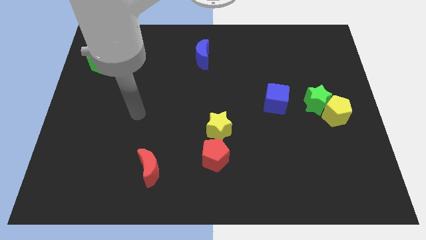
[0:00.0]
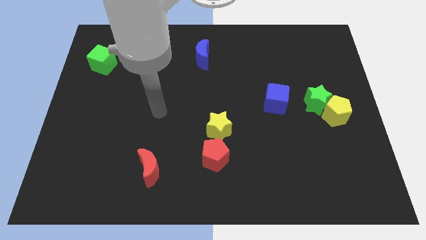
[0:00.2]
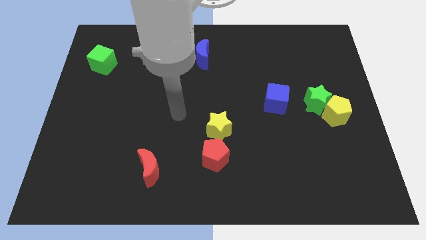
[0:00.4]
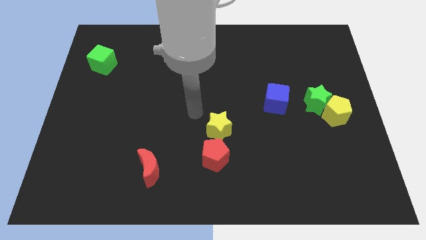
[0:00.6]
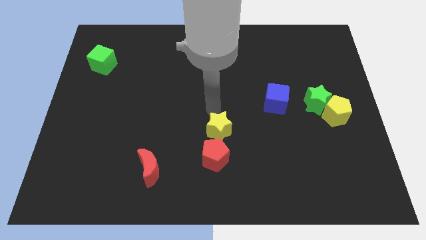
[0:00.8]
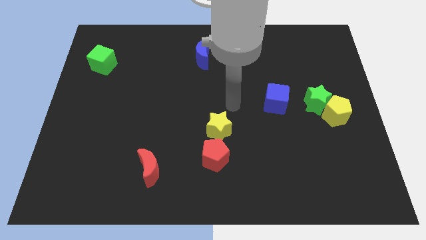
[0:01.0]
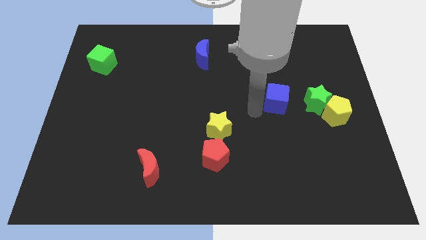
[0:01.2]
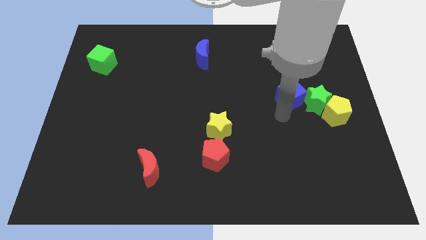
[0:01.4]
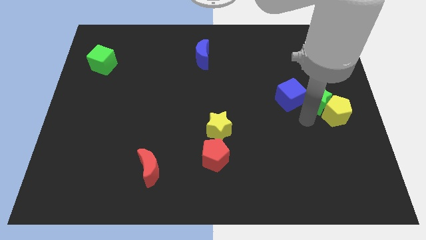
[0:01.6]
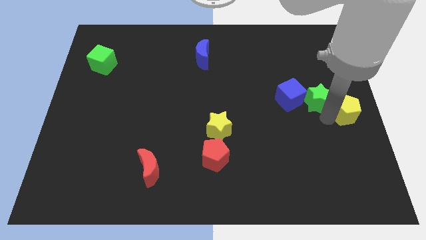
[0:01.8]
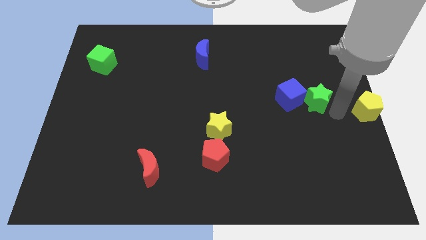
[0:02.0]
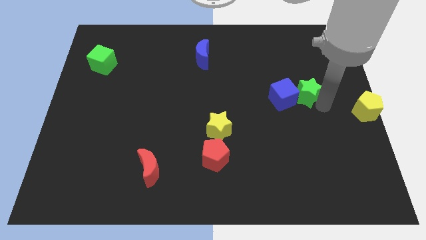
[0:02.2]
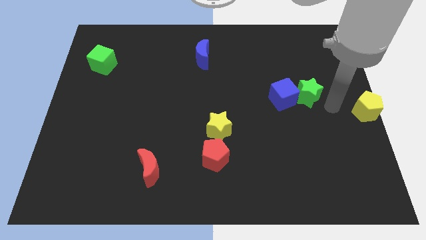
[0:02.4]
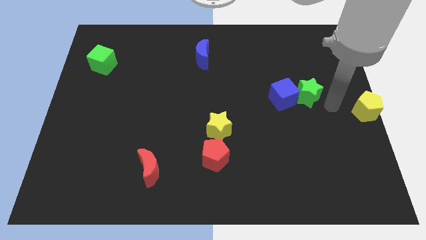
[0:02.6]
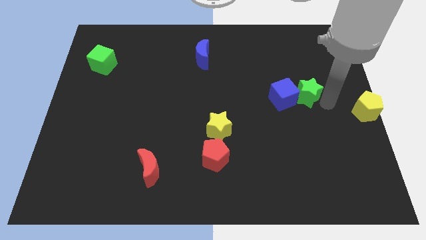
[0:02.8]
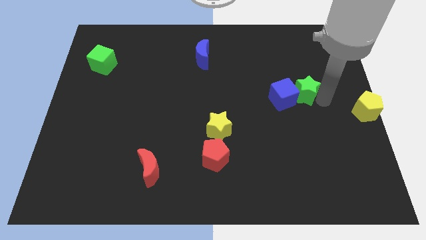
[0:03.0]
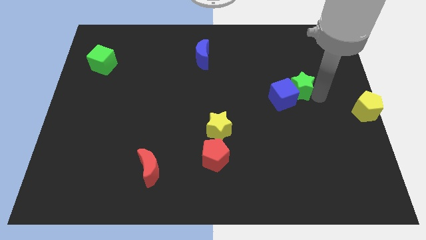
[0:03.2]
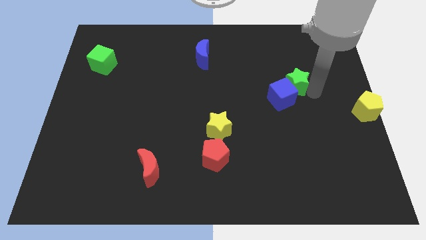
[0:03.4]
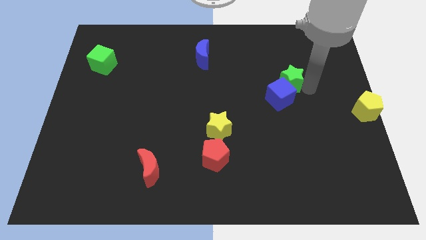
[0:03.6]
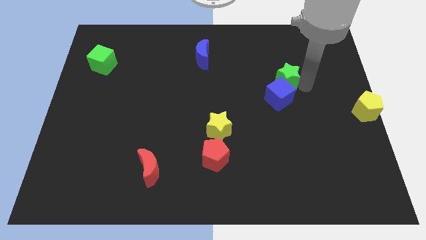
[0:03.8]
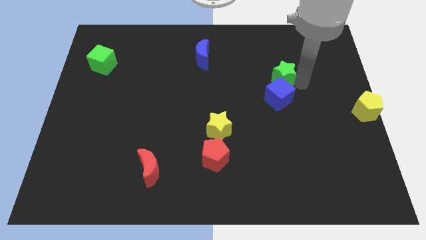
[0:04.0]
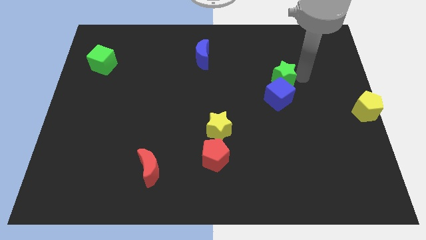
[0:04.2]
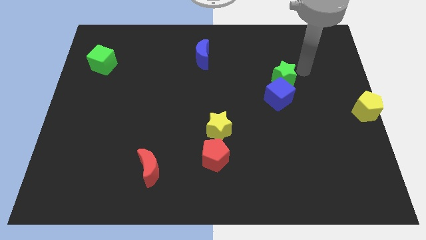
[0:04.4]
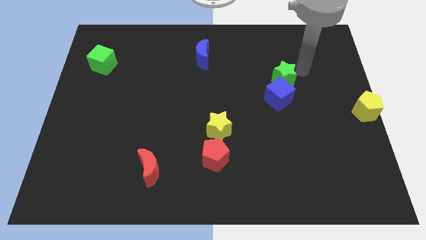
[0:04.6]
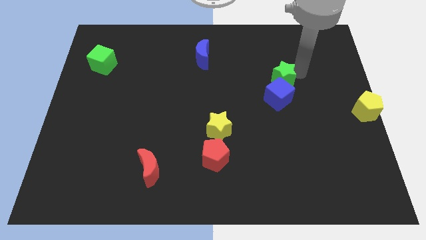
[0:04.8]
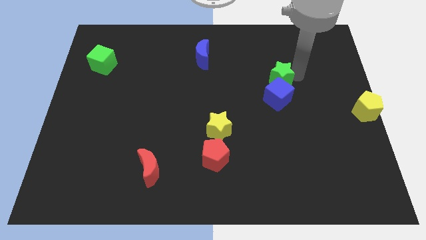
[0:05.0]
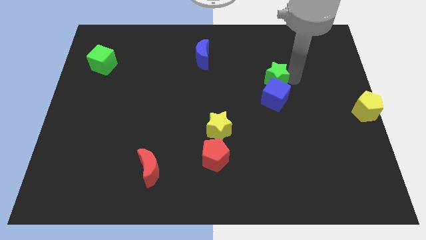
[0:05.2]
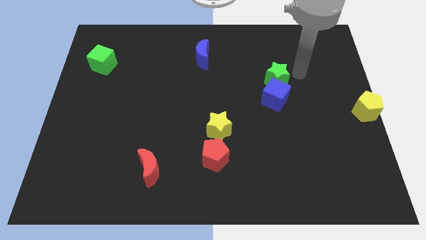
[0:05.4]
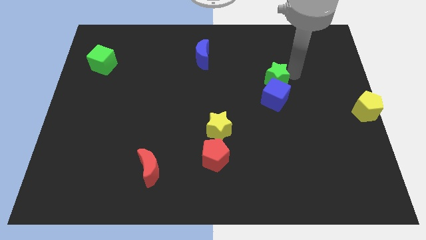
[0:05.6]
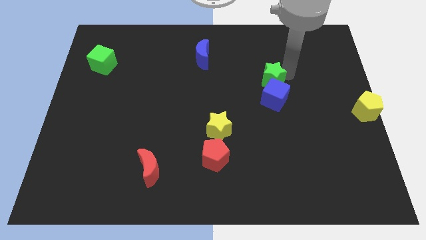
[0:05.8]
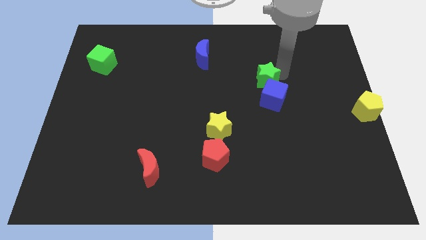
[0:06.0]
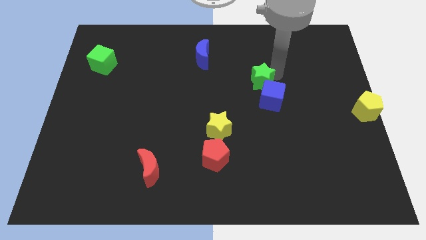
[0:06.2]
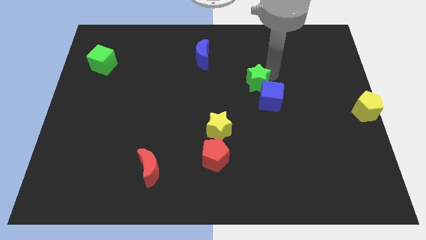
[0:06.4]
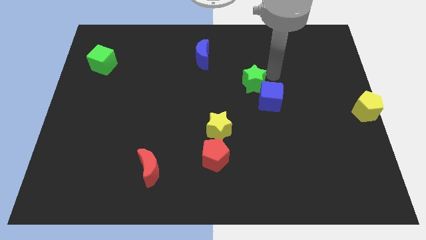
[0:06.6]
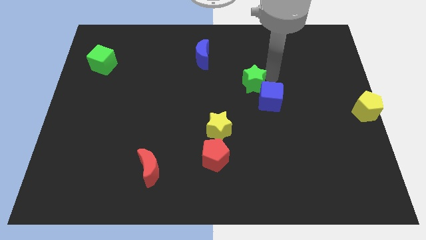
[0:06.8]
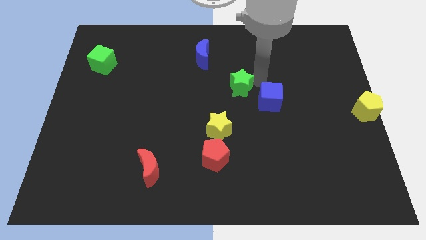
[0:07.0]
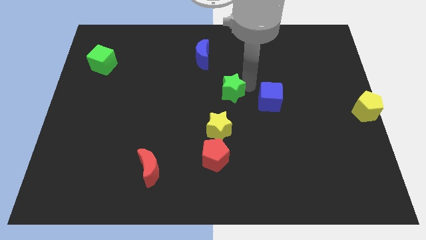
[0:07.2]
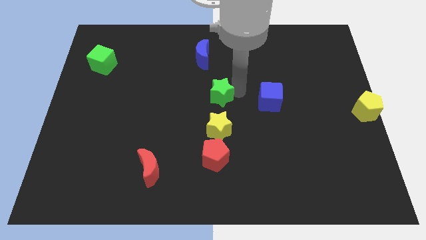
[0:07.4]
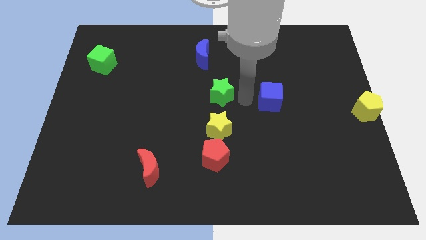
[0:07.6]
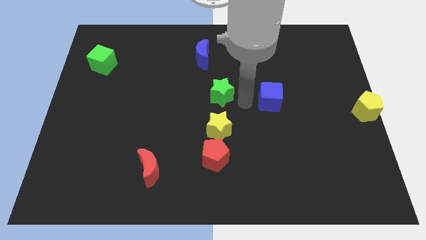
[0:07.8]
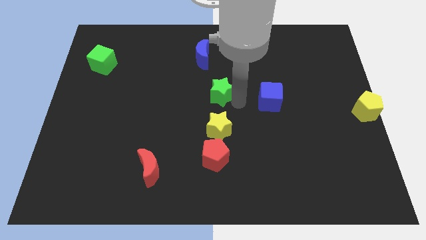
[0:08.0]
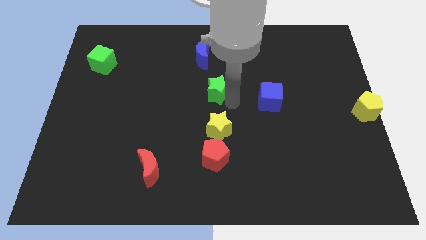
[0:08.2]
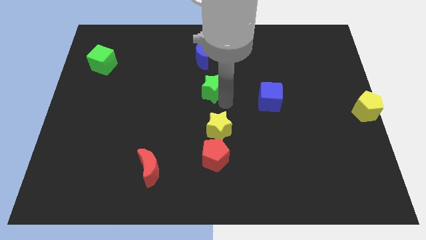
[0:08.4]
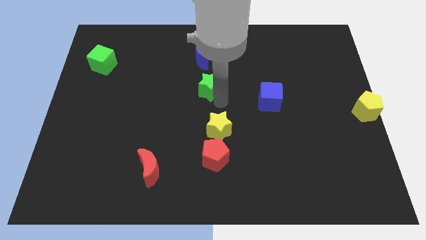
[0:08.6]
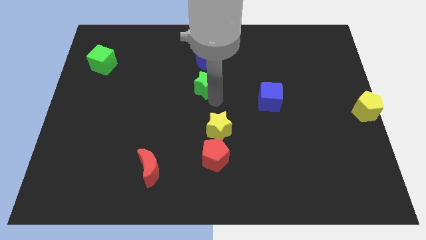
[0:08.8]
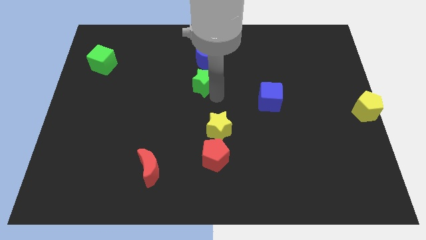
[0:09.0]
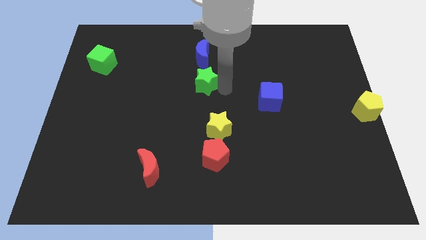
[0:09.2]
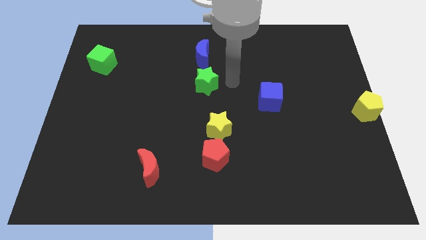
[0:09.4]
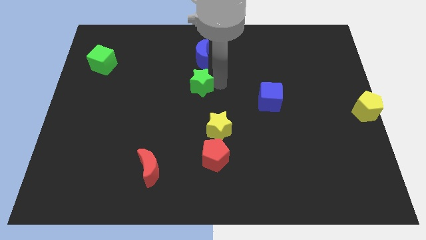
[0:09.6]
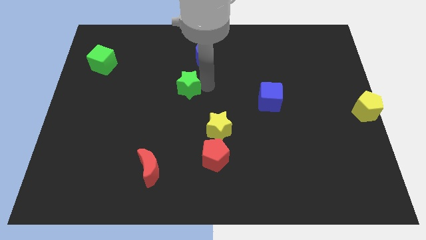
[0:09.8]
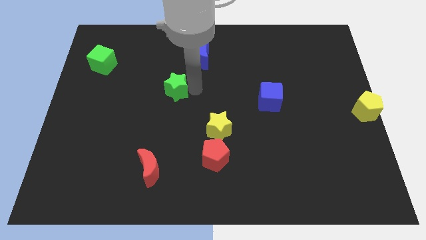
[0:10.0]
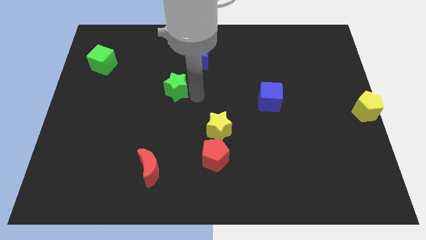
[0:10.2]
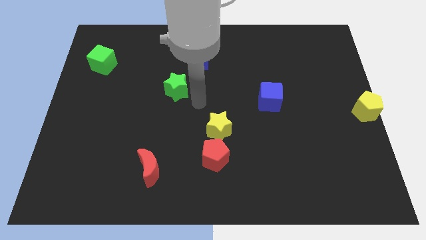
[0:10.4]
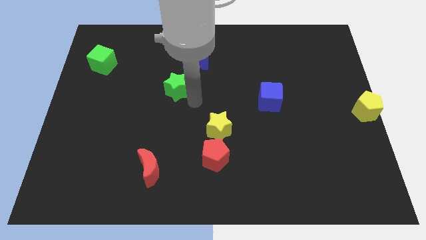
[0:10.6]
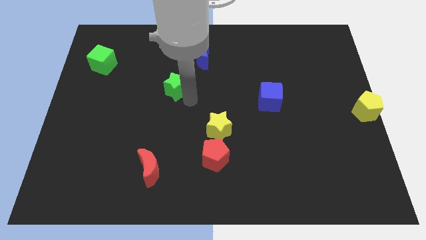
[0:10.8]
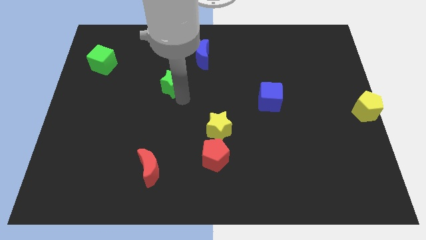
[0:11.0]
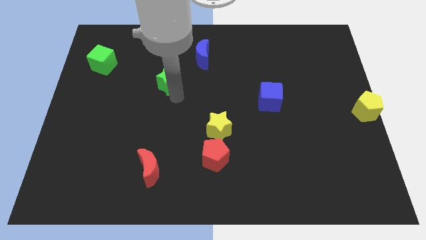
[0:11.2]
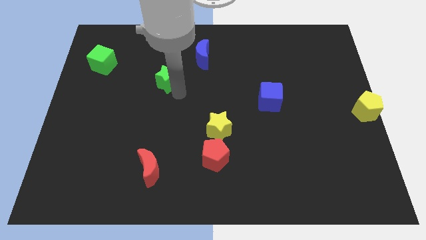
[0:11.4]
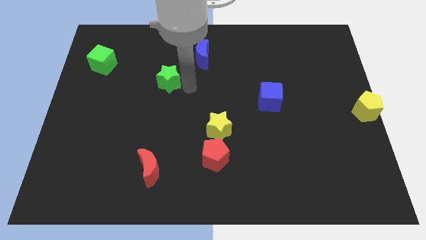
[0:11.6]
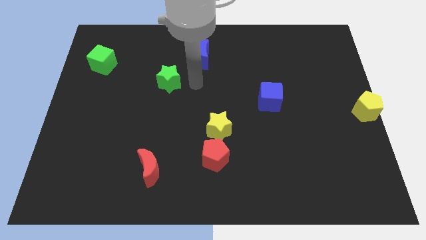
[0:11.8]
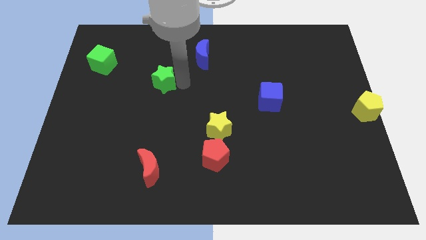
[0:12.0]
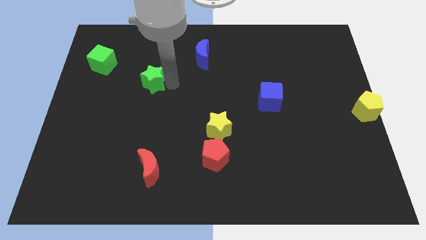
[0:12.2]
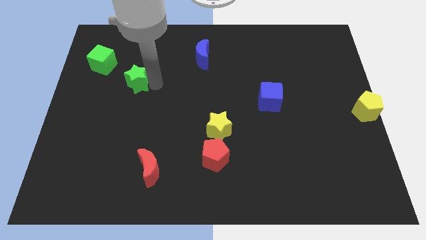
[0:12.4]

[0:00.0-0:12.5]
slide the green star to the bottom right side of the green cube

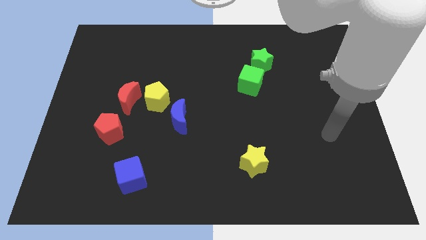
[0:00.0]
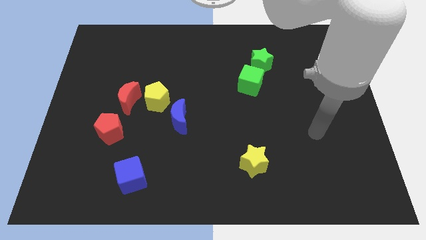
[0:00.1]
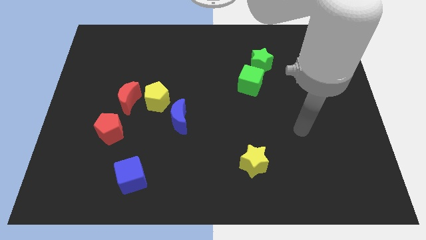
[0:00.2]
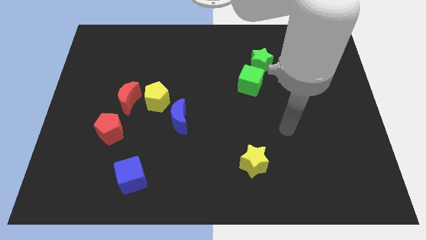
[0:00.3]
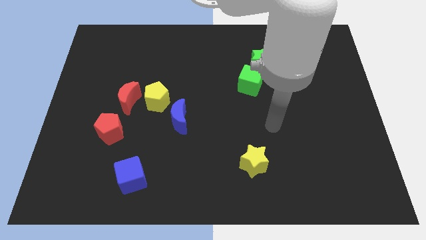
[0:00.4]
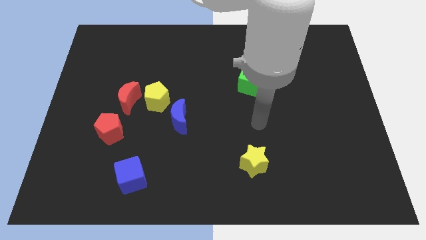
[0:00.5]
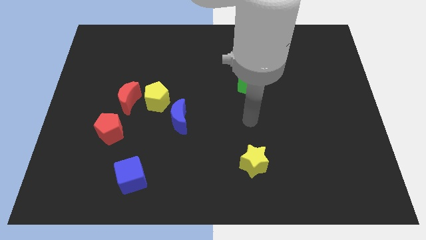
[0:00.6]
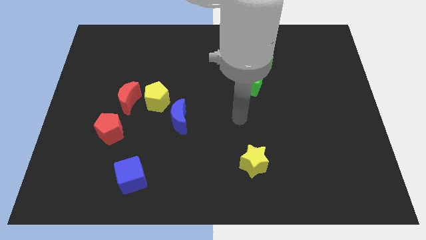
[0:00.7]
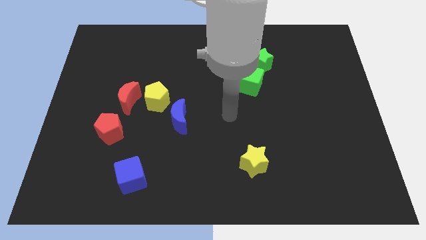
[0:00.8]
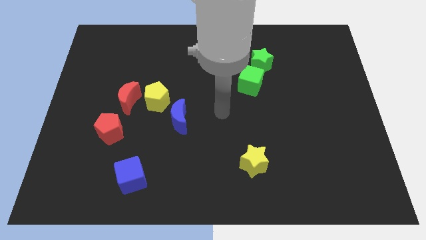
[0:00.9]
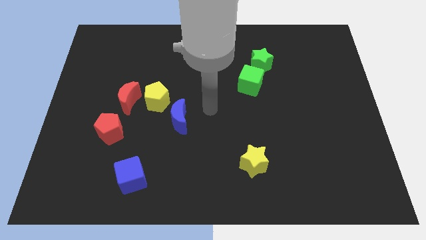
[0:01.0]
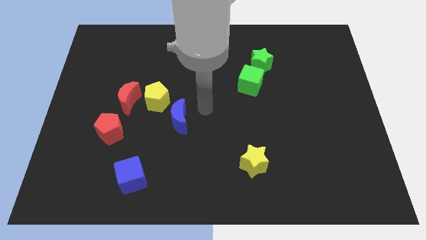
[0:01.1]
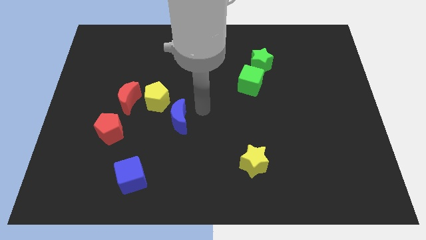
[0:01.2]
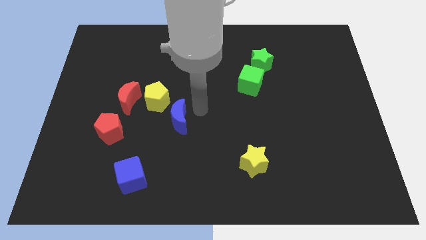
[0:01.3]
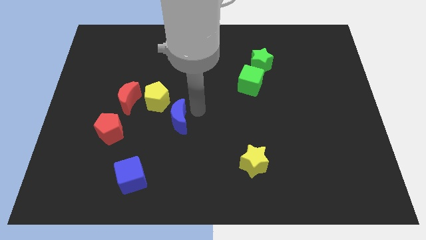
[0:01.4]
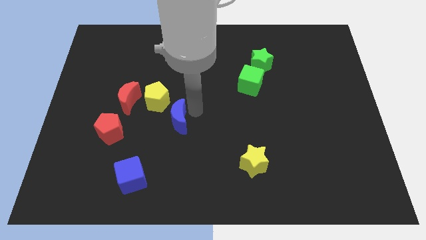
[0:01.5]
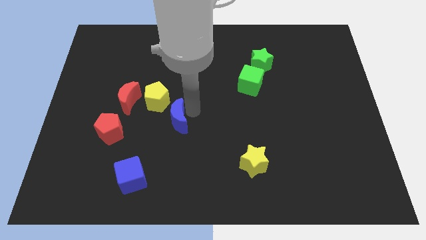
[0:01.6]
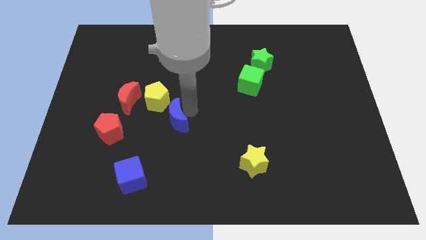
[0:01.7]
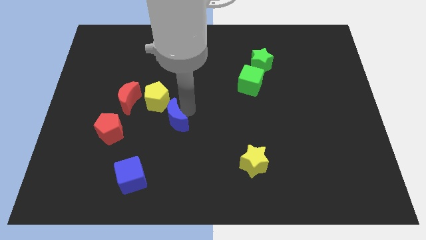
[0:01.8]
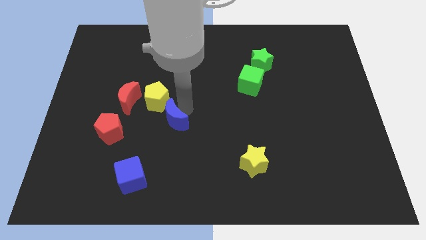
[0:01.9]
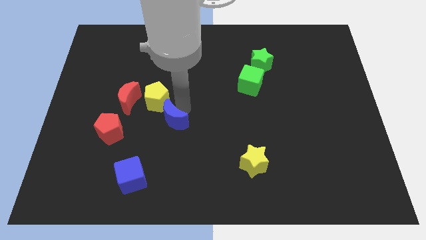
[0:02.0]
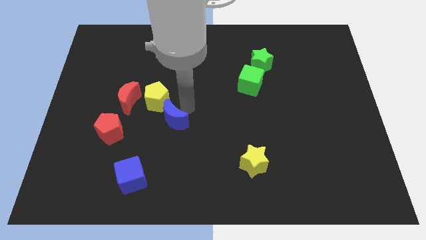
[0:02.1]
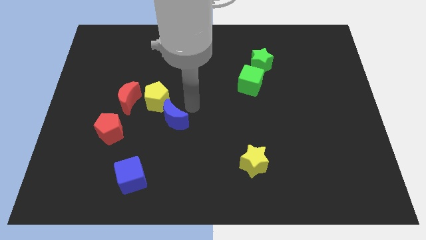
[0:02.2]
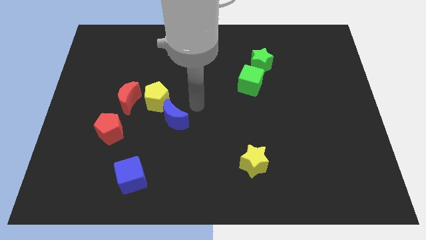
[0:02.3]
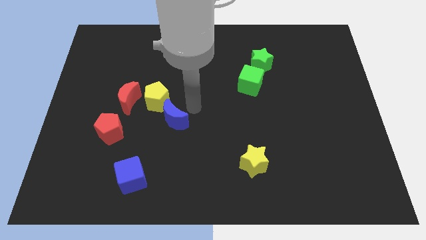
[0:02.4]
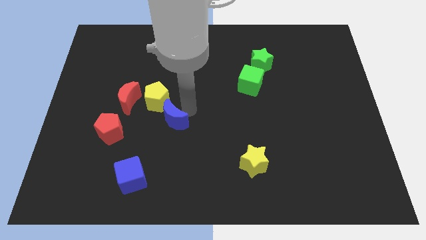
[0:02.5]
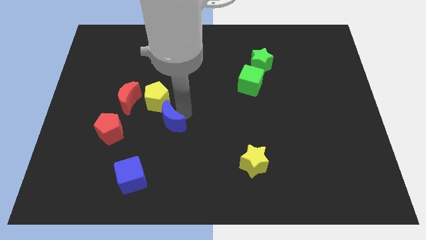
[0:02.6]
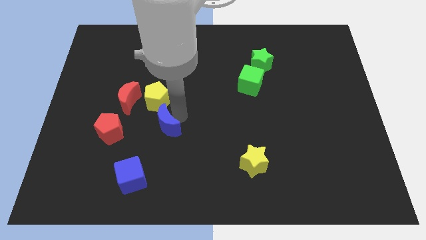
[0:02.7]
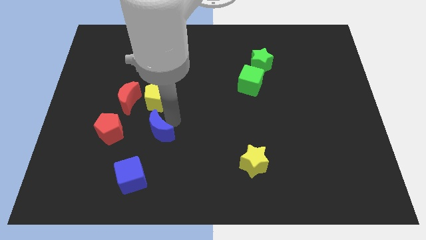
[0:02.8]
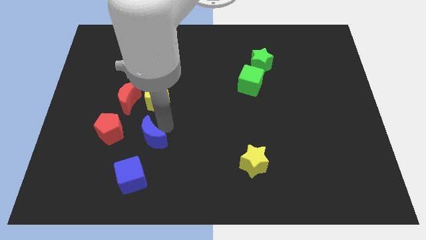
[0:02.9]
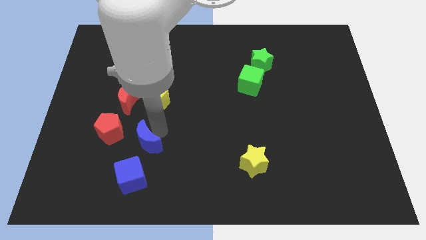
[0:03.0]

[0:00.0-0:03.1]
move the blue moon to the bottom right of the red pentagon
